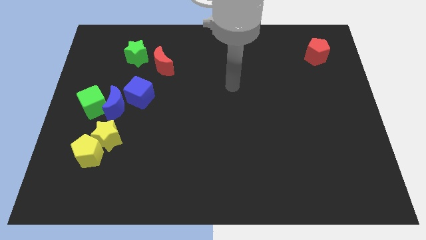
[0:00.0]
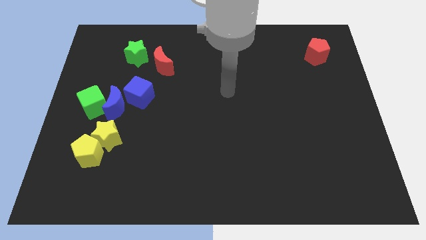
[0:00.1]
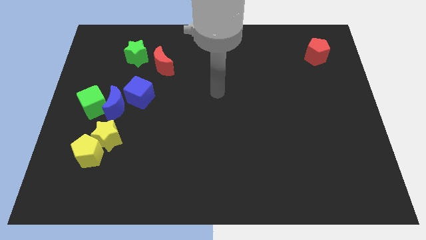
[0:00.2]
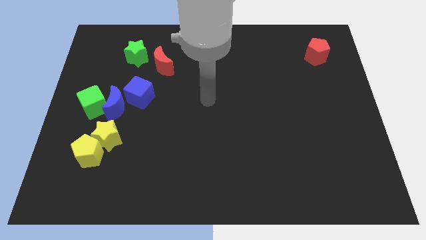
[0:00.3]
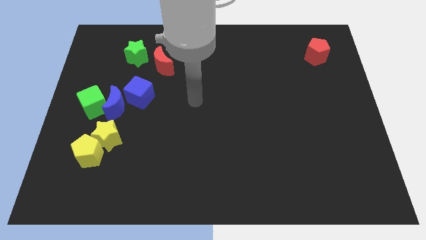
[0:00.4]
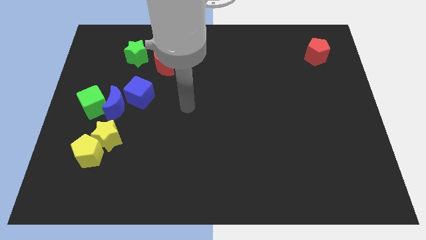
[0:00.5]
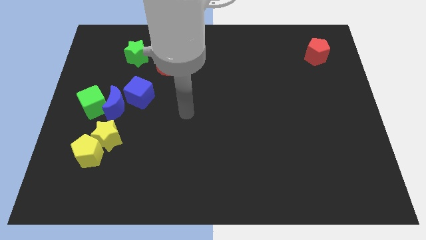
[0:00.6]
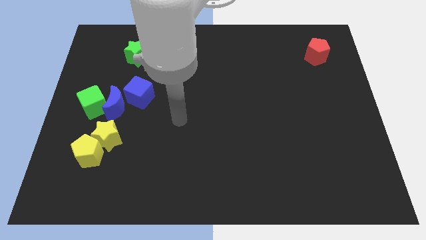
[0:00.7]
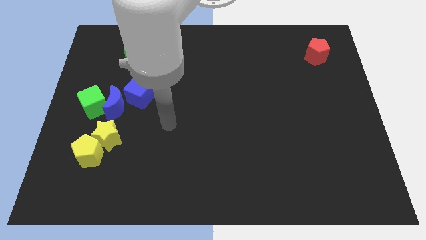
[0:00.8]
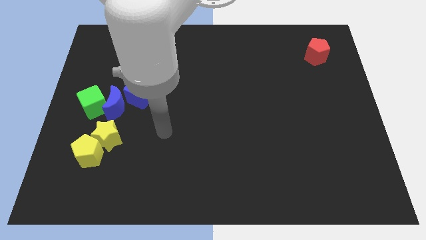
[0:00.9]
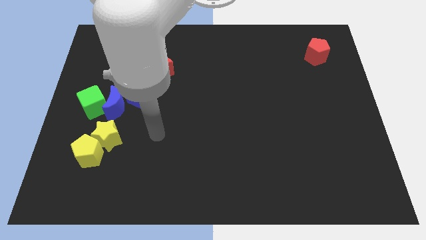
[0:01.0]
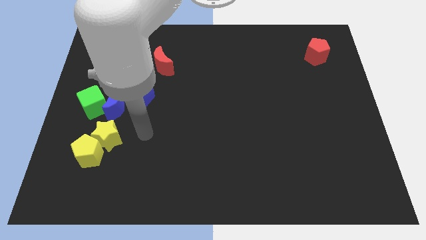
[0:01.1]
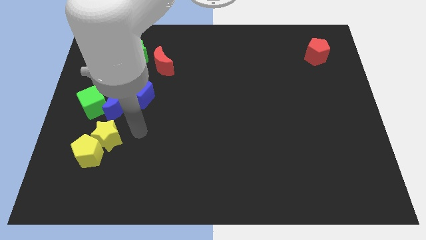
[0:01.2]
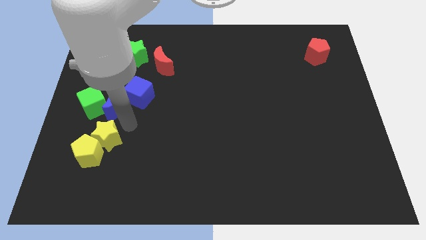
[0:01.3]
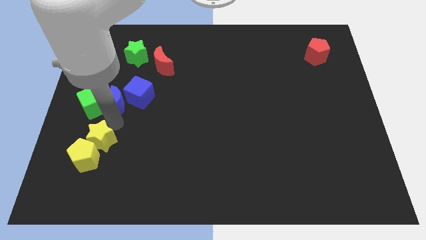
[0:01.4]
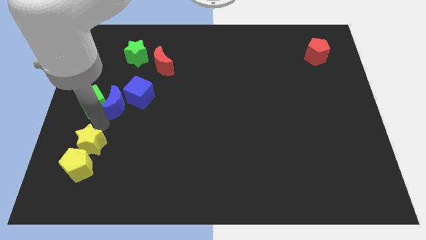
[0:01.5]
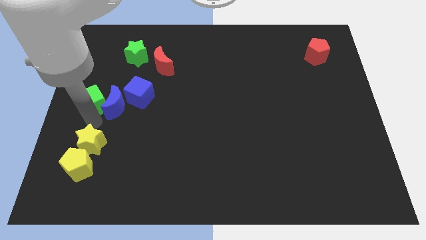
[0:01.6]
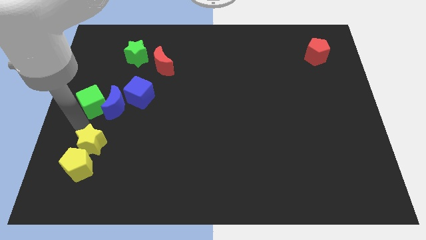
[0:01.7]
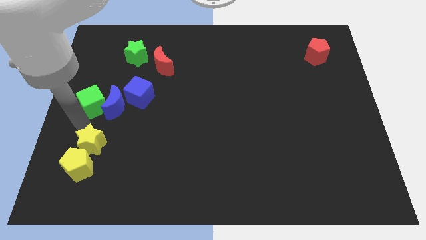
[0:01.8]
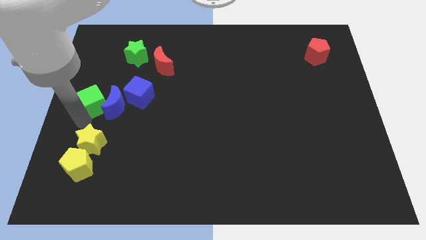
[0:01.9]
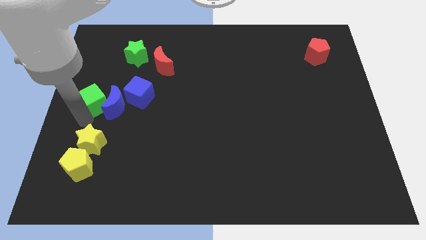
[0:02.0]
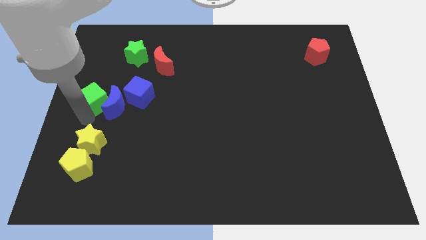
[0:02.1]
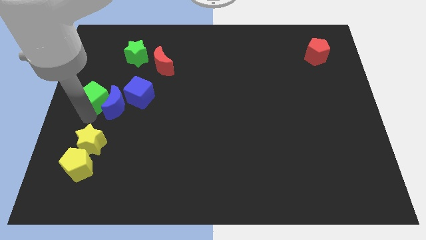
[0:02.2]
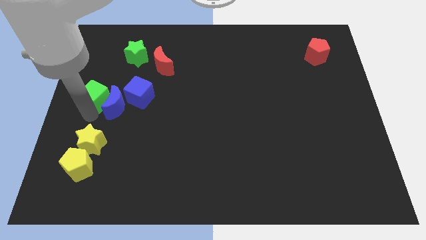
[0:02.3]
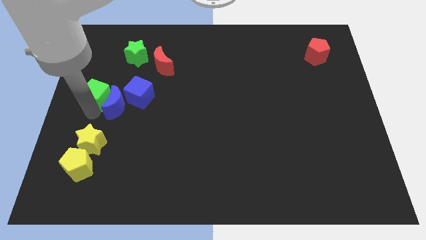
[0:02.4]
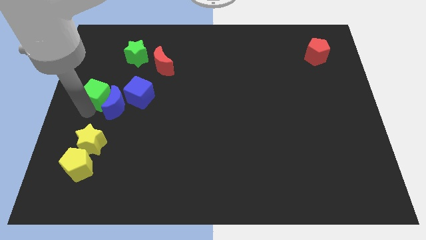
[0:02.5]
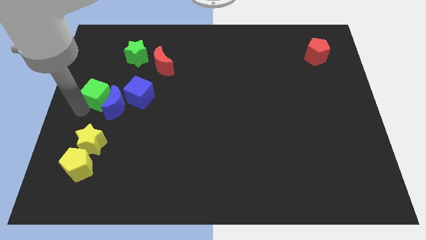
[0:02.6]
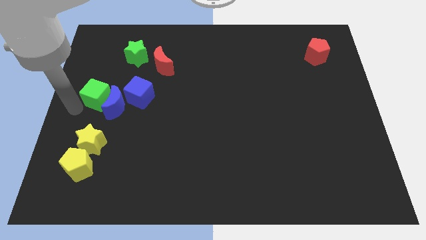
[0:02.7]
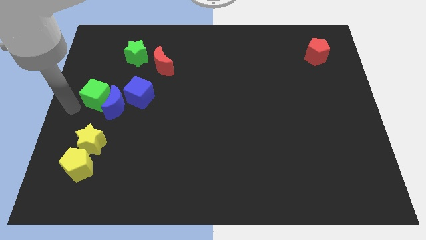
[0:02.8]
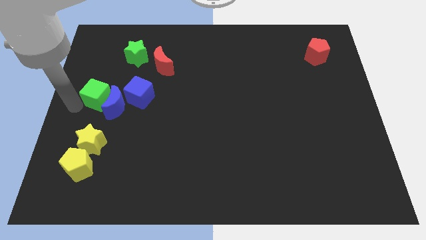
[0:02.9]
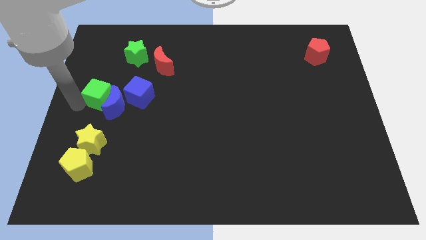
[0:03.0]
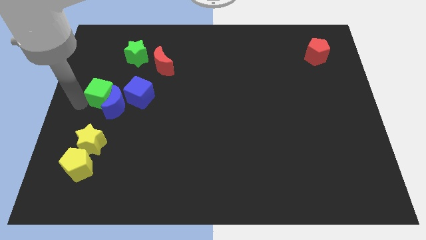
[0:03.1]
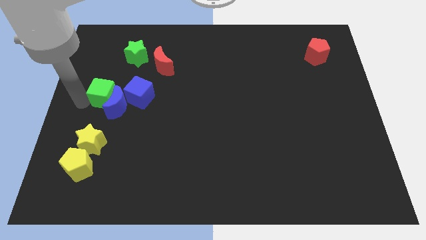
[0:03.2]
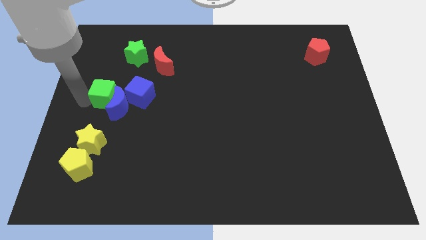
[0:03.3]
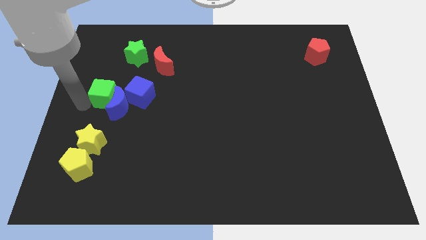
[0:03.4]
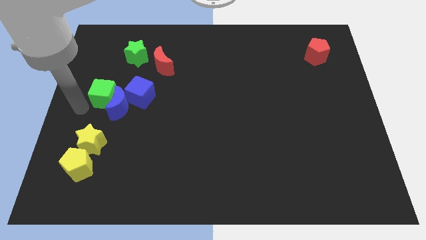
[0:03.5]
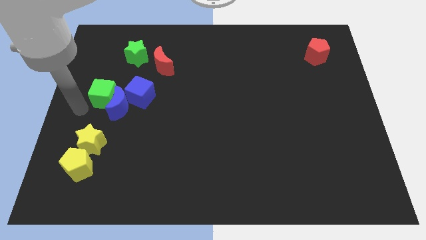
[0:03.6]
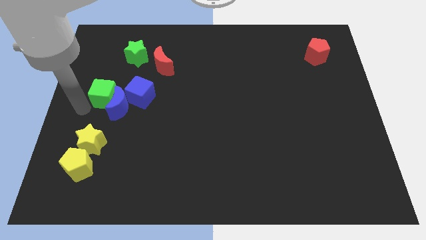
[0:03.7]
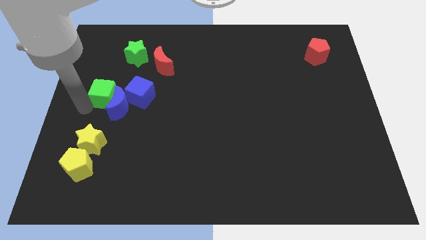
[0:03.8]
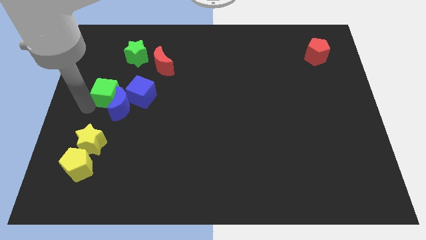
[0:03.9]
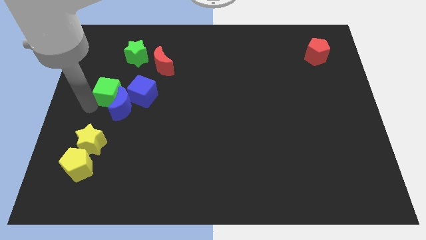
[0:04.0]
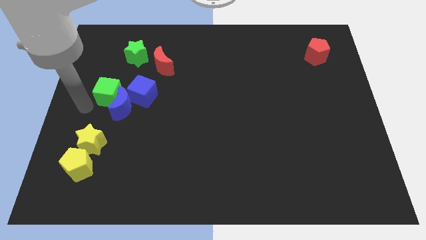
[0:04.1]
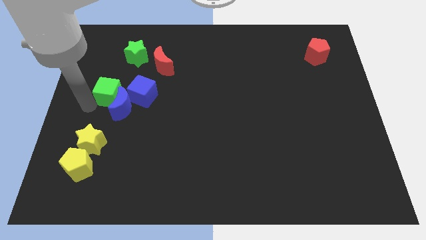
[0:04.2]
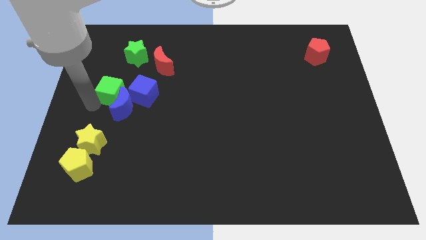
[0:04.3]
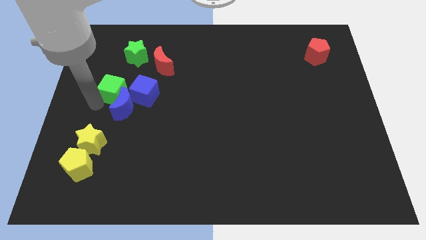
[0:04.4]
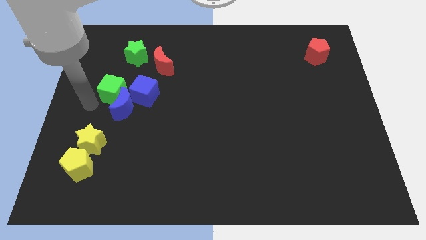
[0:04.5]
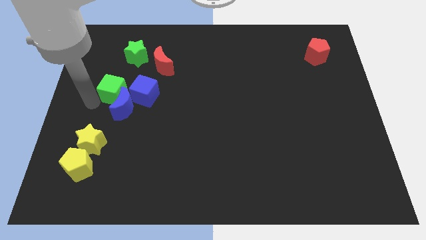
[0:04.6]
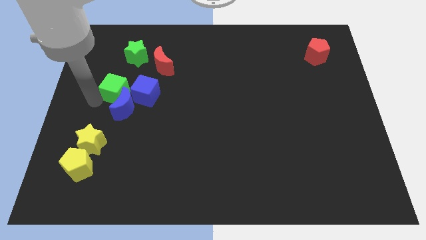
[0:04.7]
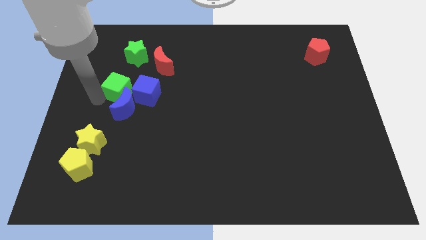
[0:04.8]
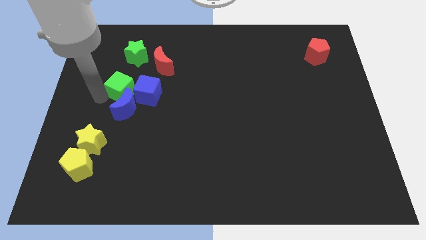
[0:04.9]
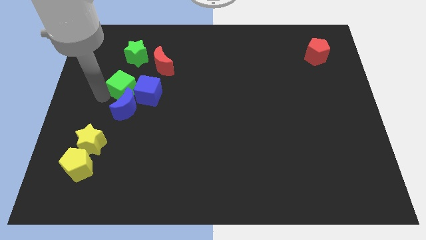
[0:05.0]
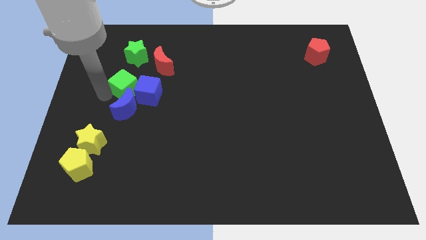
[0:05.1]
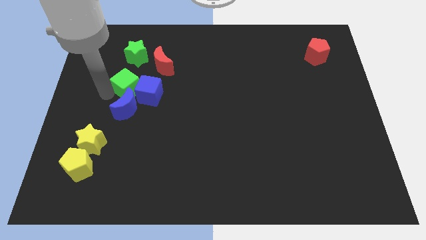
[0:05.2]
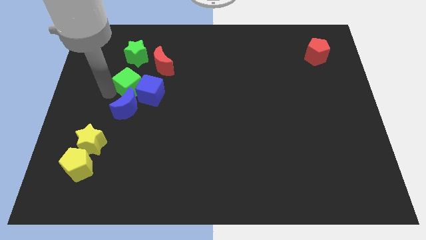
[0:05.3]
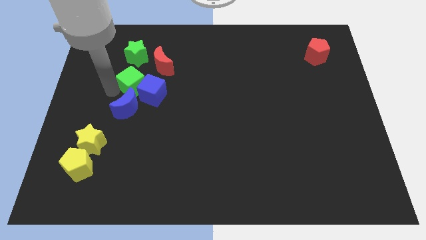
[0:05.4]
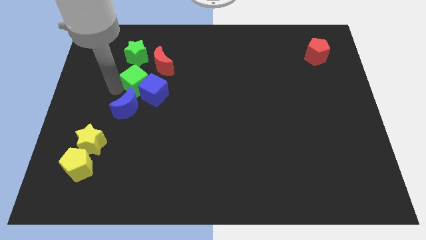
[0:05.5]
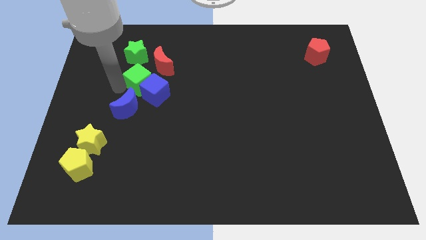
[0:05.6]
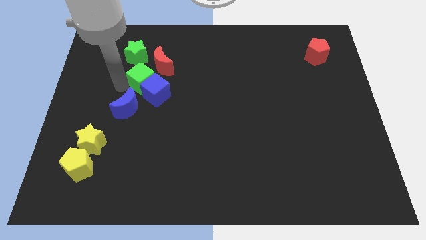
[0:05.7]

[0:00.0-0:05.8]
slide the green cube to the bottom right side of the green star
